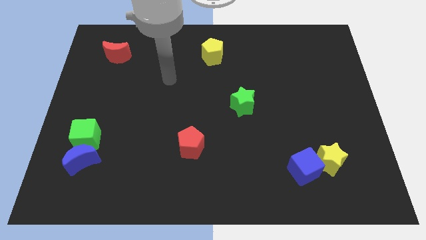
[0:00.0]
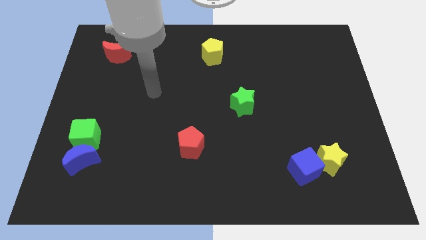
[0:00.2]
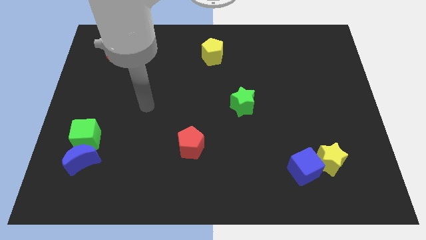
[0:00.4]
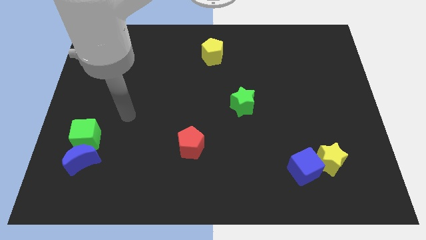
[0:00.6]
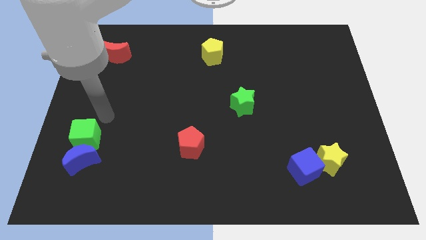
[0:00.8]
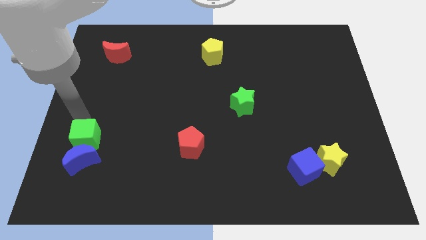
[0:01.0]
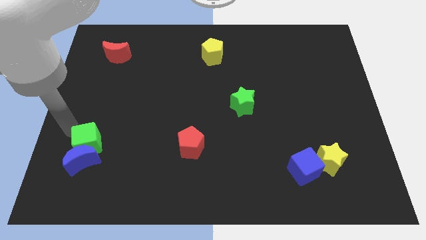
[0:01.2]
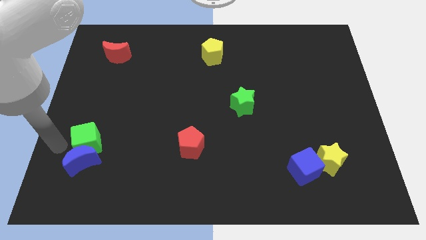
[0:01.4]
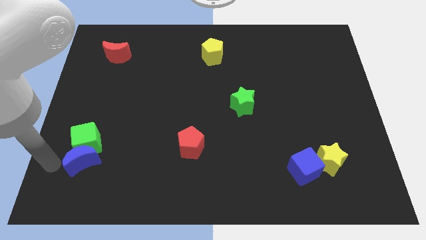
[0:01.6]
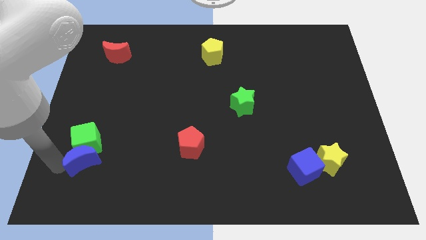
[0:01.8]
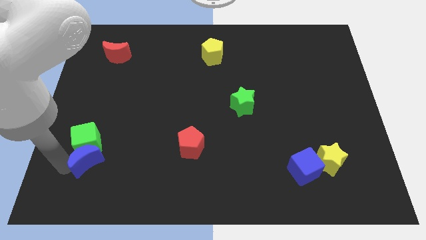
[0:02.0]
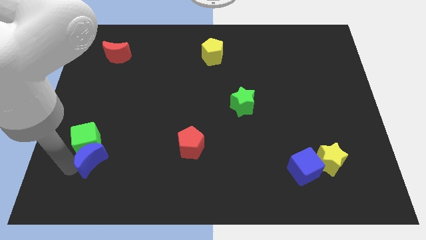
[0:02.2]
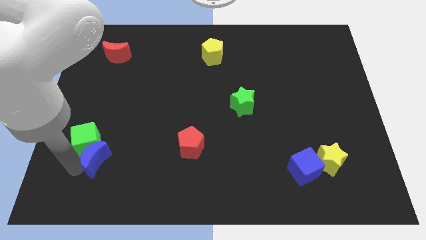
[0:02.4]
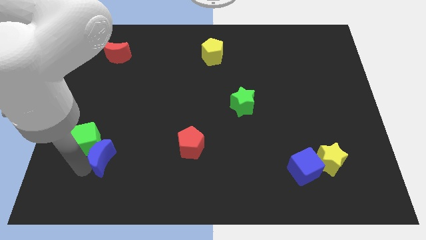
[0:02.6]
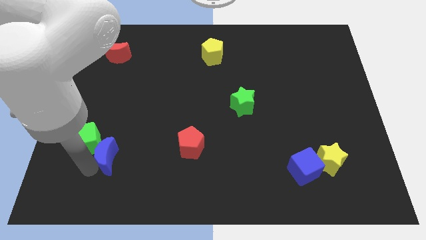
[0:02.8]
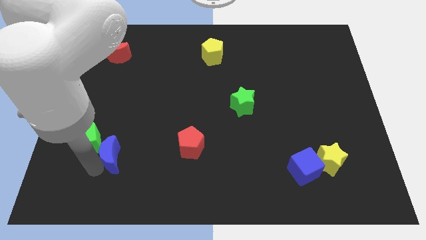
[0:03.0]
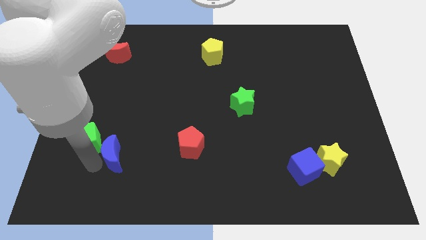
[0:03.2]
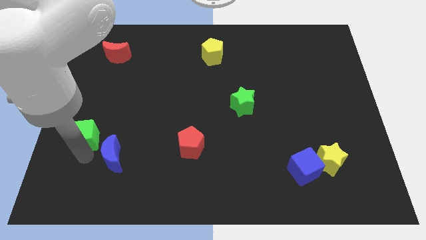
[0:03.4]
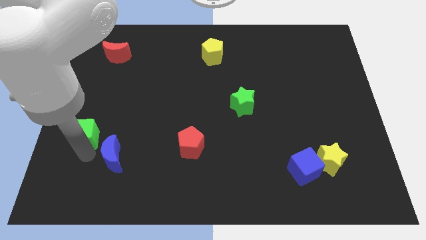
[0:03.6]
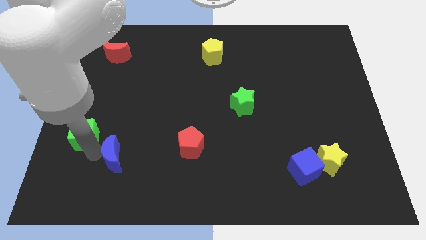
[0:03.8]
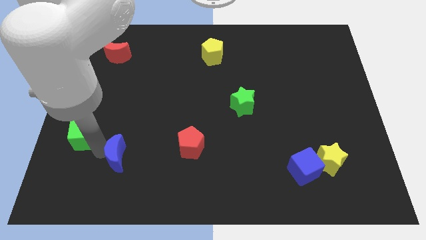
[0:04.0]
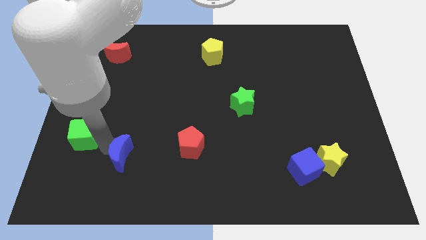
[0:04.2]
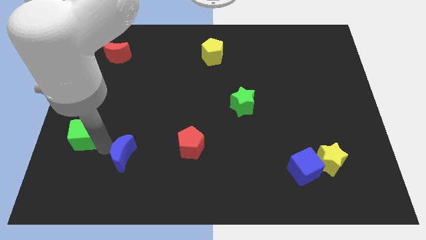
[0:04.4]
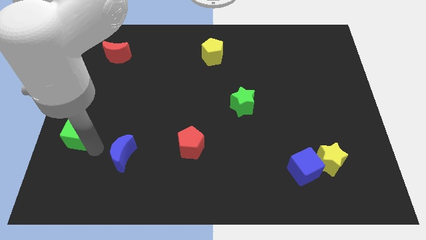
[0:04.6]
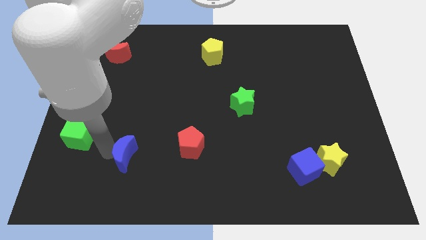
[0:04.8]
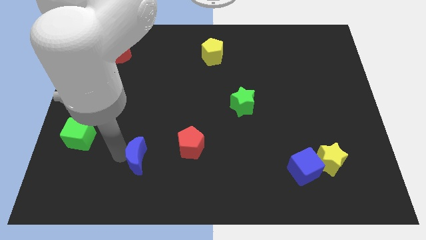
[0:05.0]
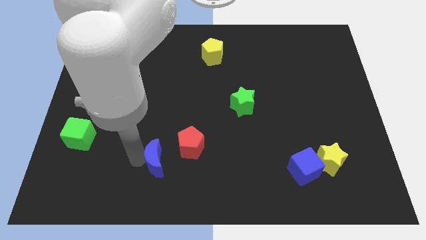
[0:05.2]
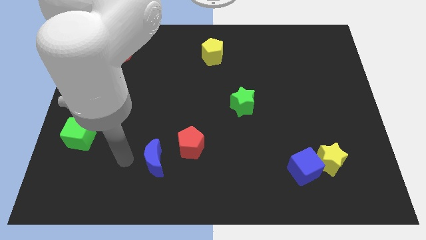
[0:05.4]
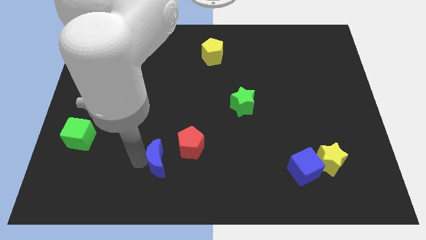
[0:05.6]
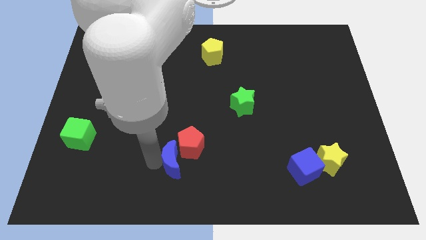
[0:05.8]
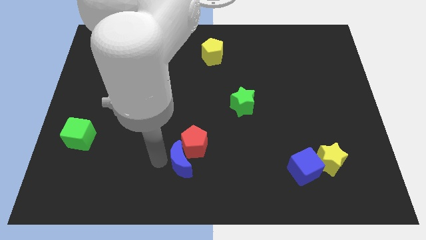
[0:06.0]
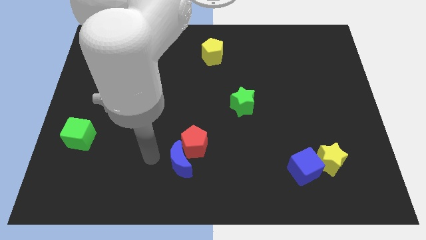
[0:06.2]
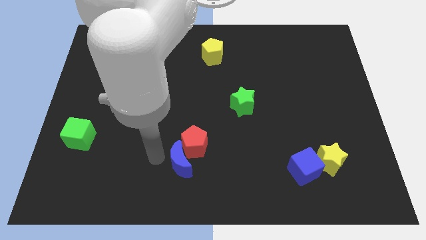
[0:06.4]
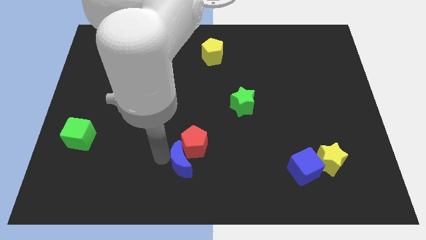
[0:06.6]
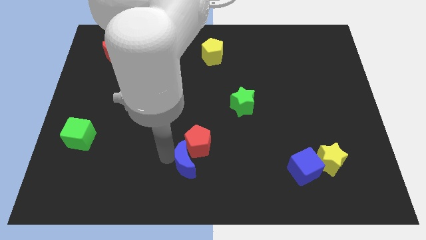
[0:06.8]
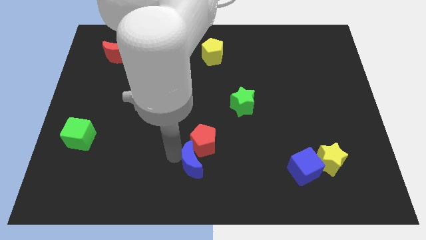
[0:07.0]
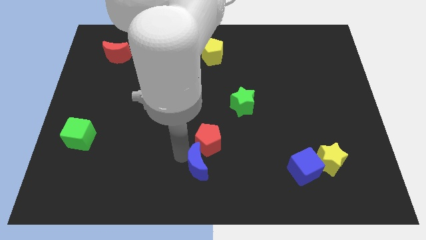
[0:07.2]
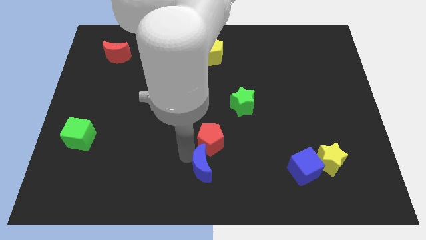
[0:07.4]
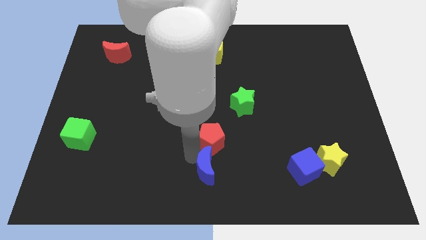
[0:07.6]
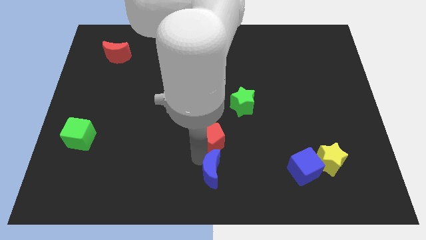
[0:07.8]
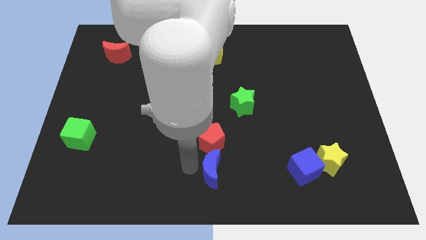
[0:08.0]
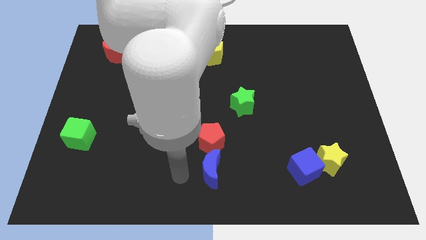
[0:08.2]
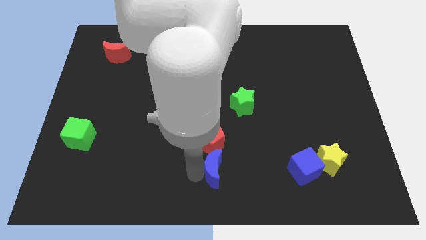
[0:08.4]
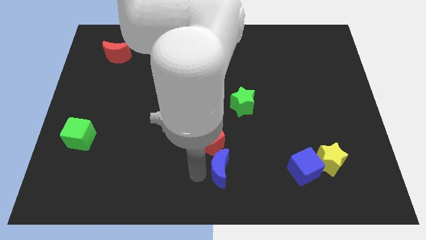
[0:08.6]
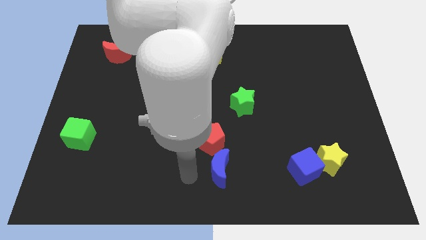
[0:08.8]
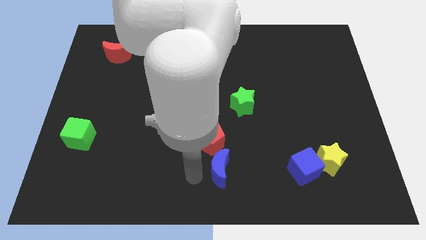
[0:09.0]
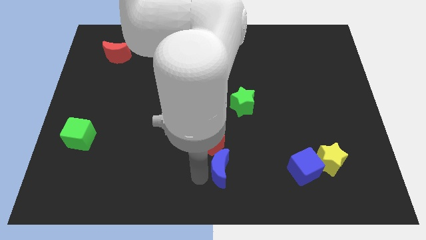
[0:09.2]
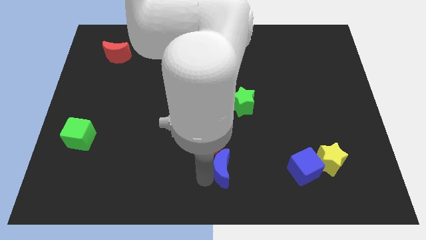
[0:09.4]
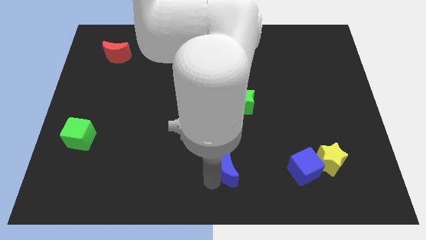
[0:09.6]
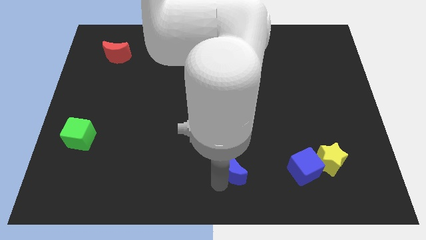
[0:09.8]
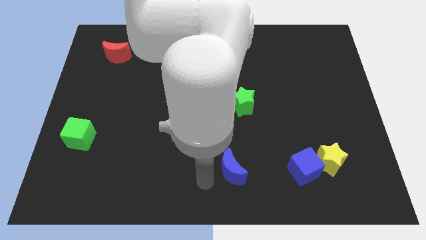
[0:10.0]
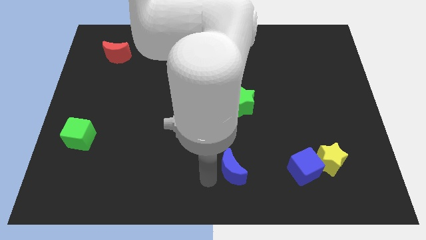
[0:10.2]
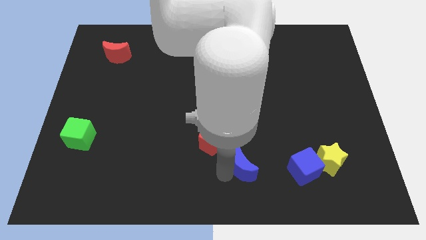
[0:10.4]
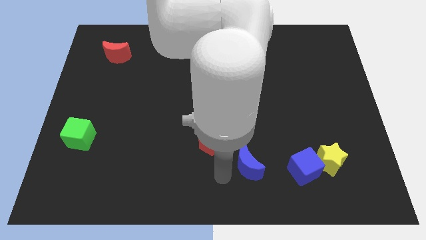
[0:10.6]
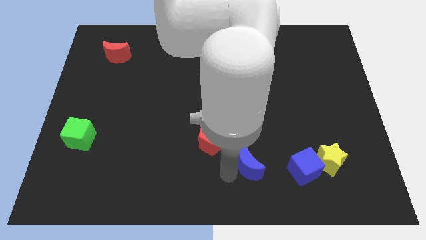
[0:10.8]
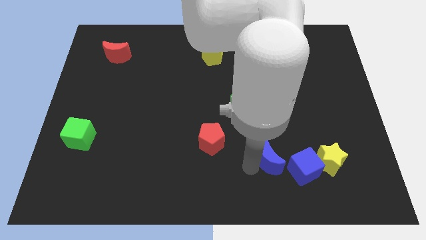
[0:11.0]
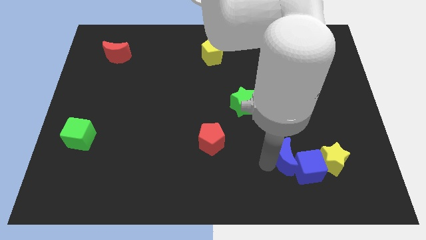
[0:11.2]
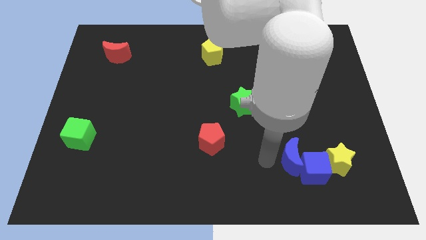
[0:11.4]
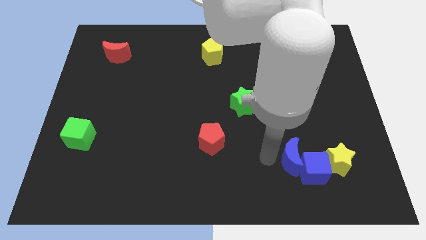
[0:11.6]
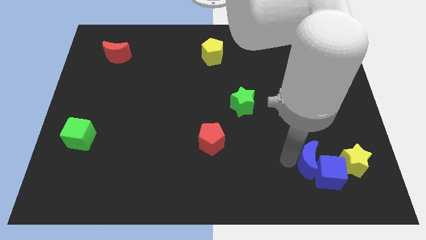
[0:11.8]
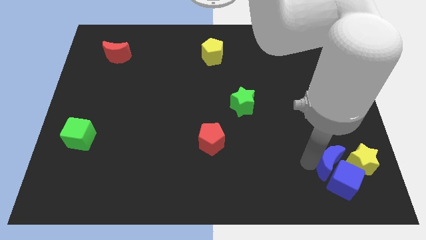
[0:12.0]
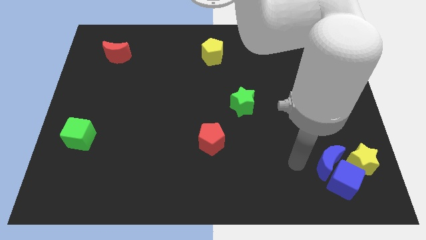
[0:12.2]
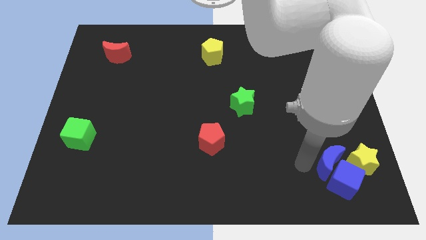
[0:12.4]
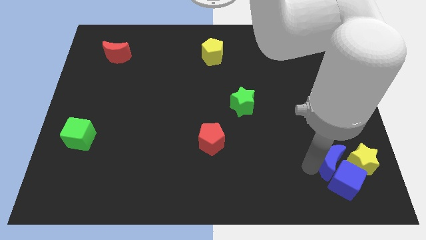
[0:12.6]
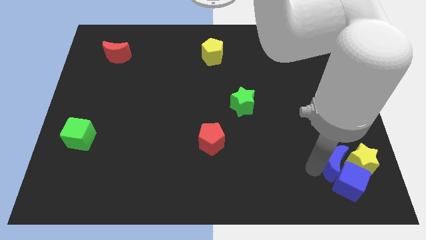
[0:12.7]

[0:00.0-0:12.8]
push the blue moon towards the yellow star

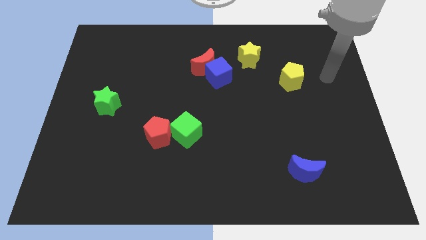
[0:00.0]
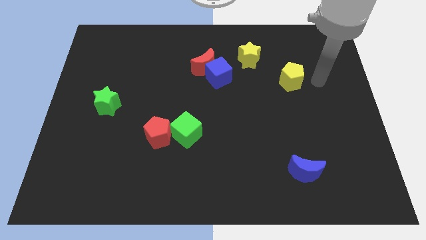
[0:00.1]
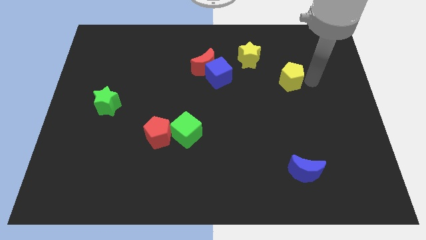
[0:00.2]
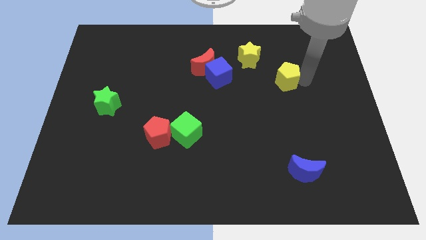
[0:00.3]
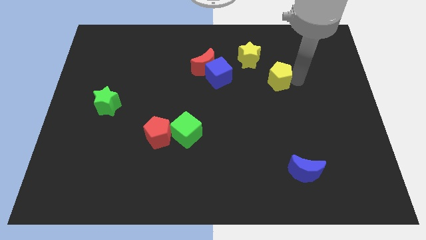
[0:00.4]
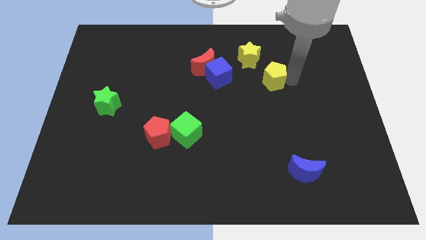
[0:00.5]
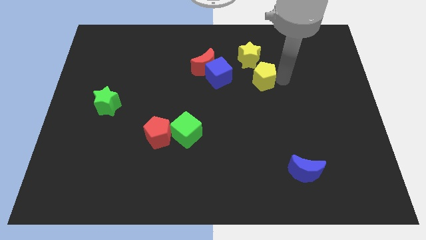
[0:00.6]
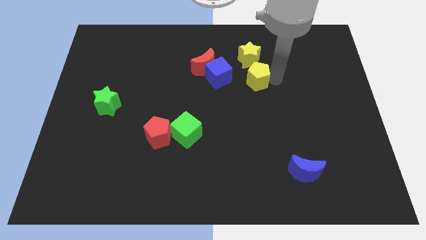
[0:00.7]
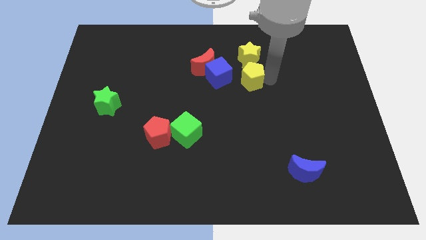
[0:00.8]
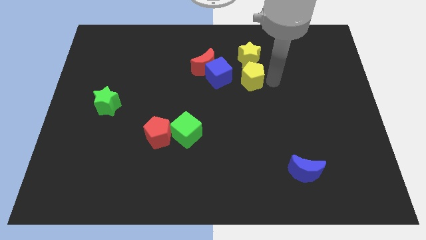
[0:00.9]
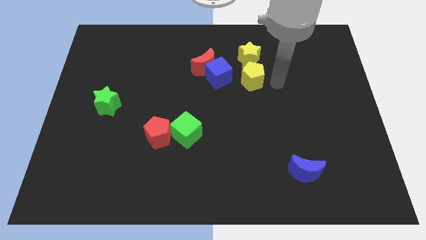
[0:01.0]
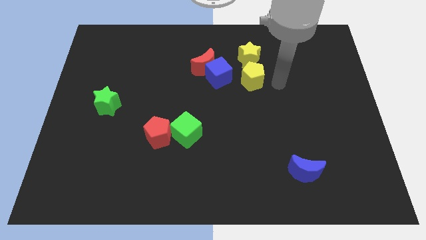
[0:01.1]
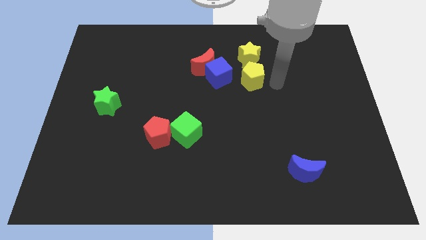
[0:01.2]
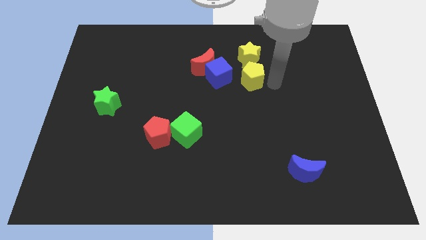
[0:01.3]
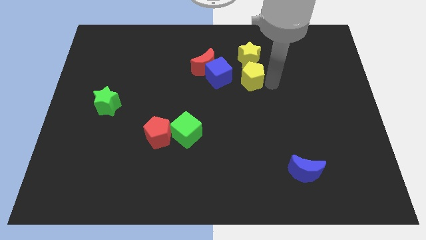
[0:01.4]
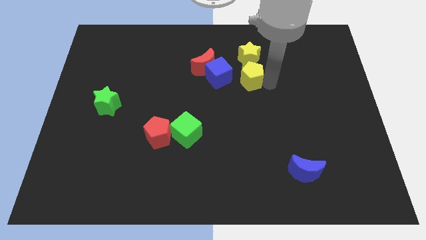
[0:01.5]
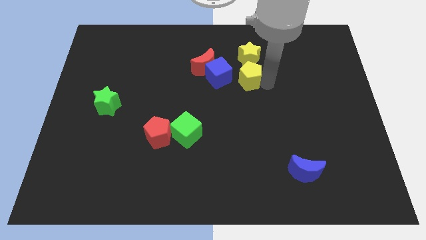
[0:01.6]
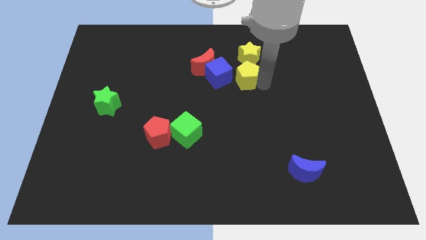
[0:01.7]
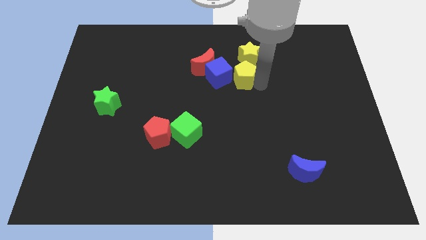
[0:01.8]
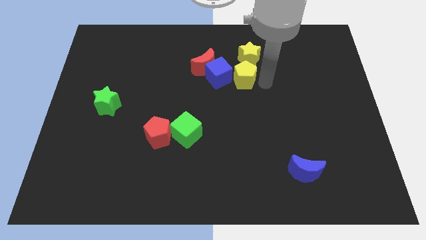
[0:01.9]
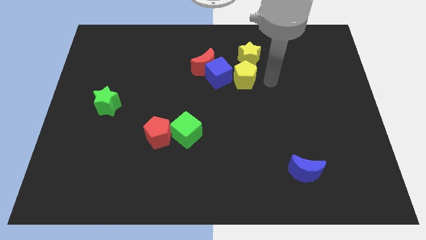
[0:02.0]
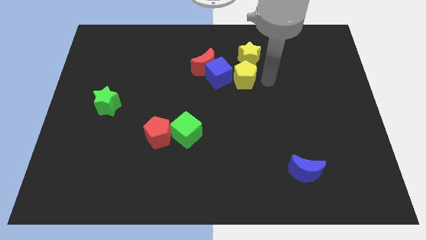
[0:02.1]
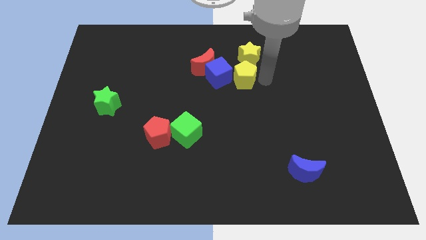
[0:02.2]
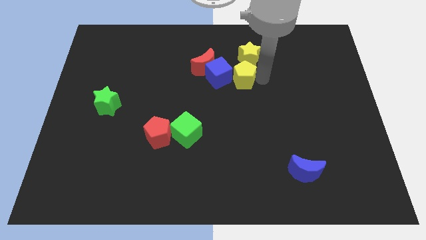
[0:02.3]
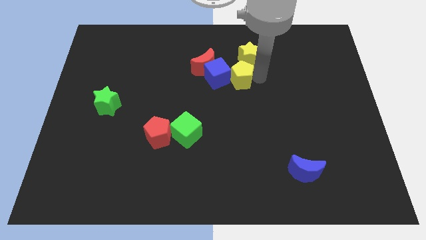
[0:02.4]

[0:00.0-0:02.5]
slide the yellow pentagon next to the blue cube
